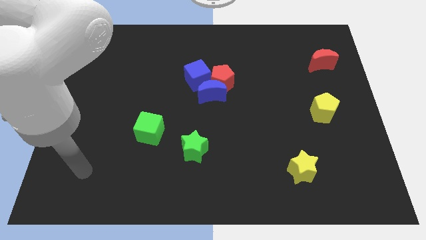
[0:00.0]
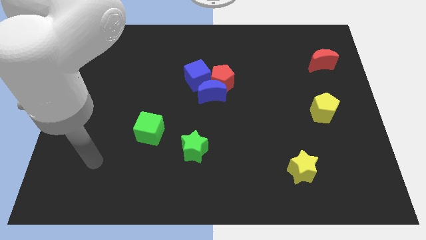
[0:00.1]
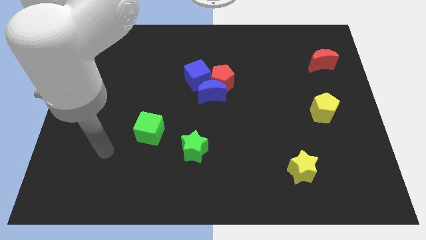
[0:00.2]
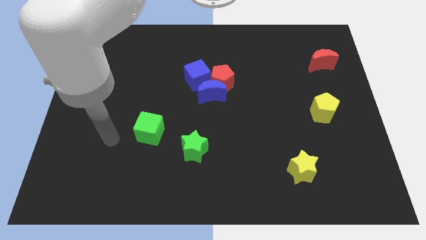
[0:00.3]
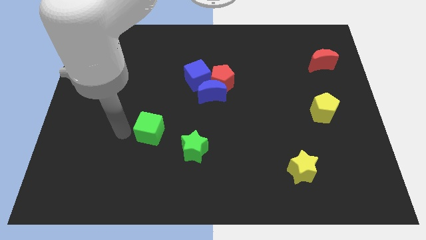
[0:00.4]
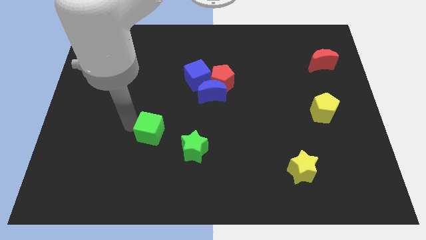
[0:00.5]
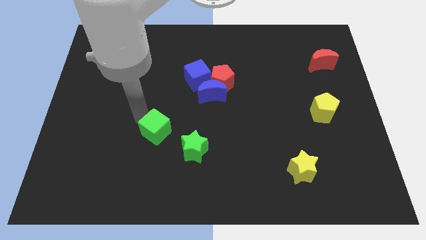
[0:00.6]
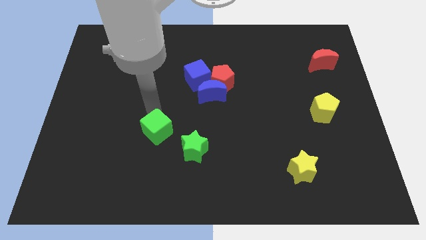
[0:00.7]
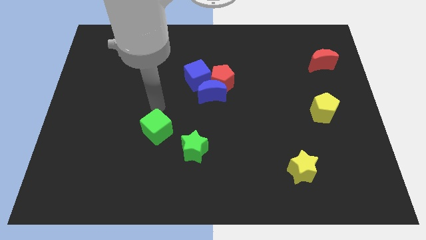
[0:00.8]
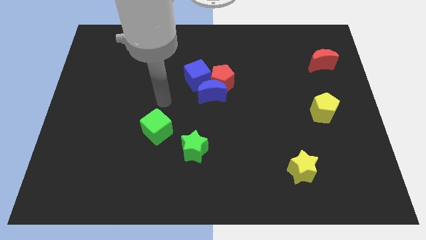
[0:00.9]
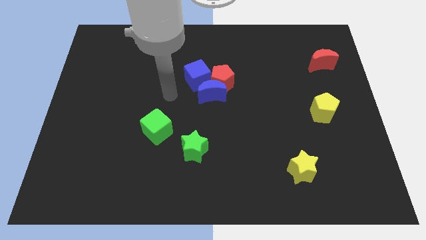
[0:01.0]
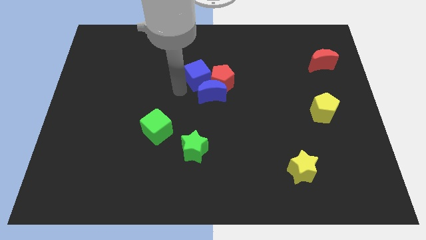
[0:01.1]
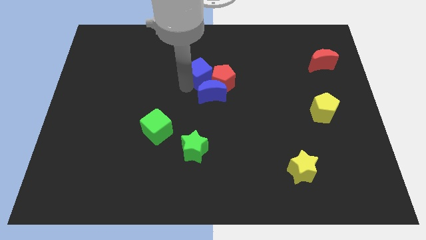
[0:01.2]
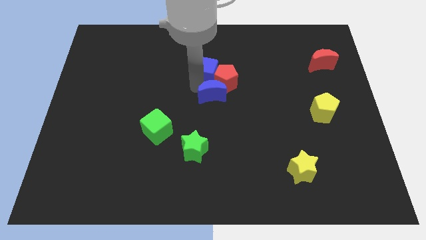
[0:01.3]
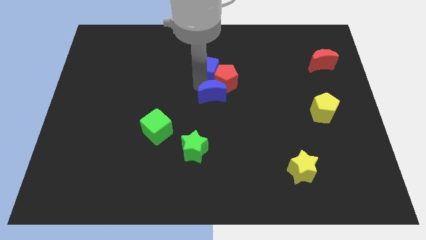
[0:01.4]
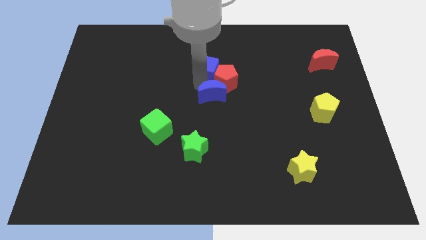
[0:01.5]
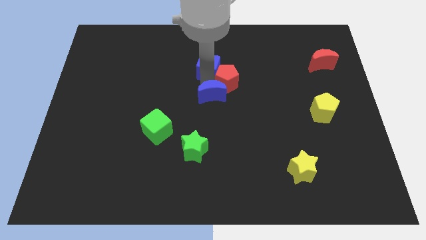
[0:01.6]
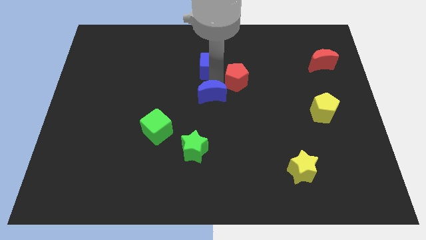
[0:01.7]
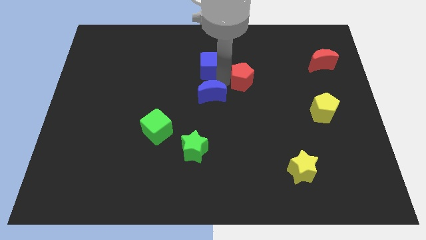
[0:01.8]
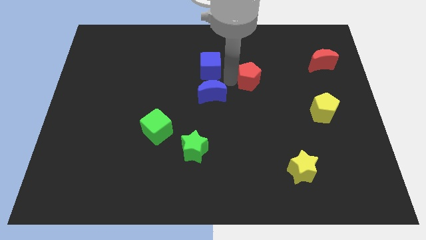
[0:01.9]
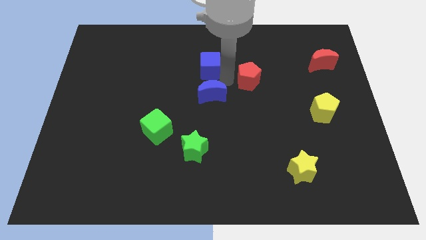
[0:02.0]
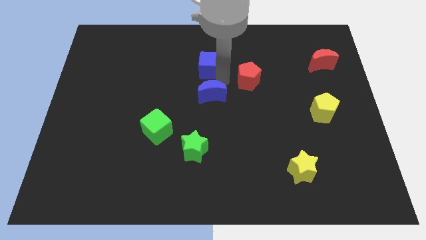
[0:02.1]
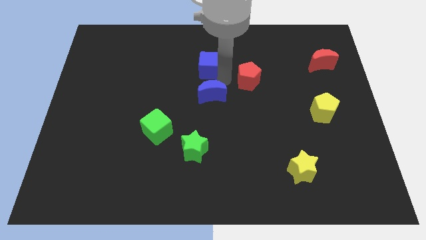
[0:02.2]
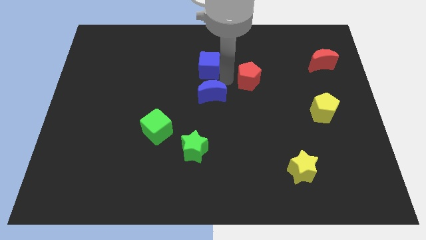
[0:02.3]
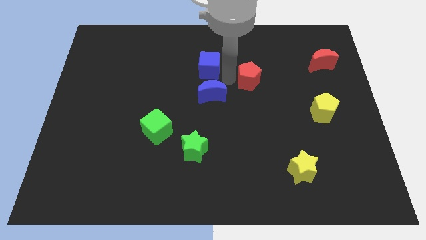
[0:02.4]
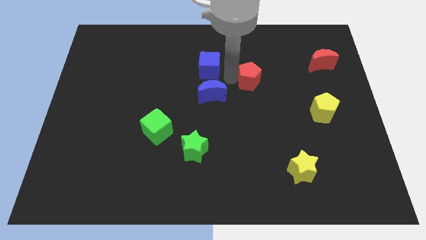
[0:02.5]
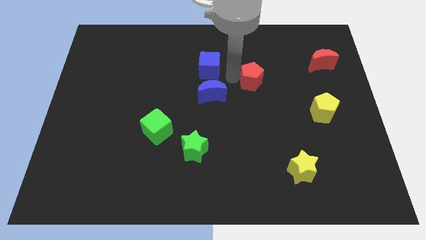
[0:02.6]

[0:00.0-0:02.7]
separate the red pentagon from the blue moon and blue cube

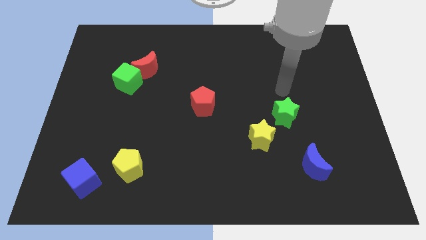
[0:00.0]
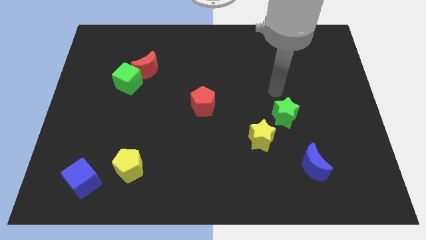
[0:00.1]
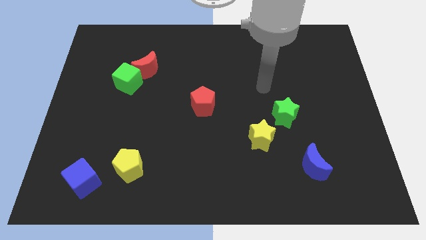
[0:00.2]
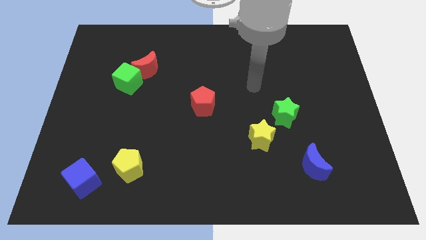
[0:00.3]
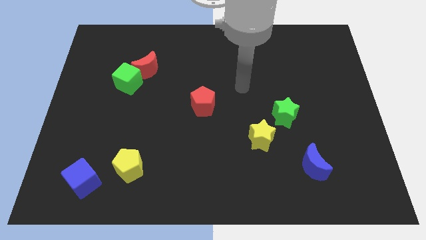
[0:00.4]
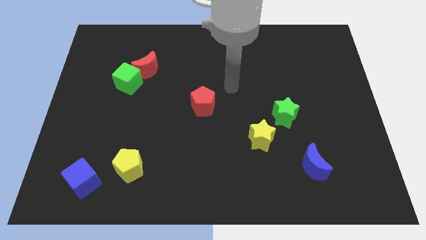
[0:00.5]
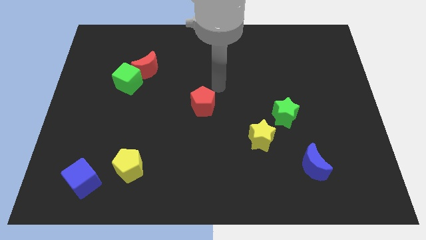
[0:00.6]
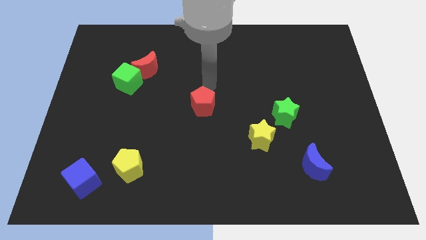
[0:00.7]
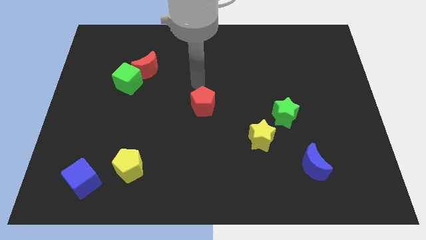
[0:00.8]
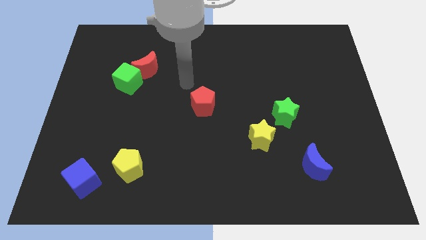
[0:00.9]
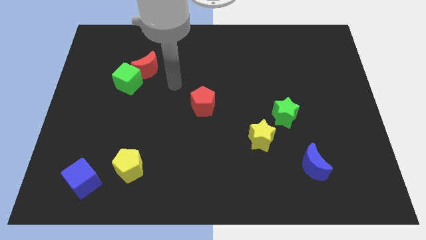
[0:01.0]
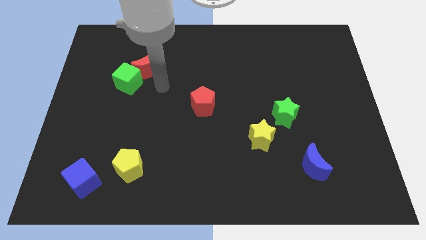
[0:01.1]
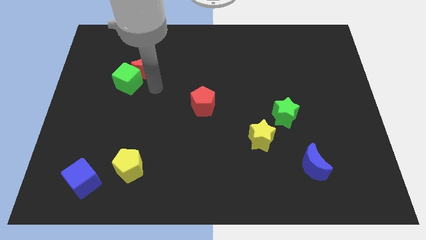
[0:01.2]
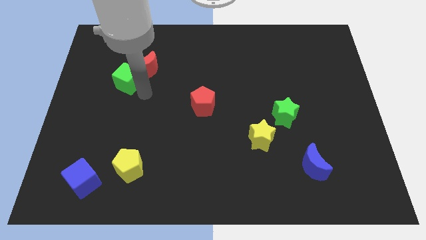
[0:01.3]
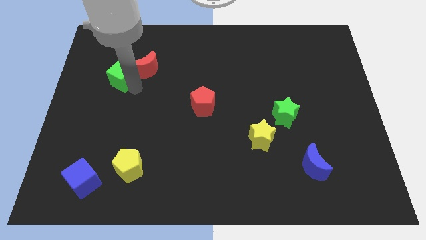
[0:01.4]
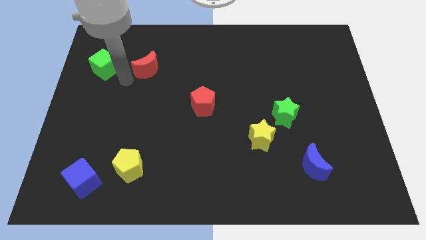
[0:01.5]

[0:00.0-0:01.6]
separate the red moon from the green cube

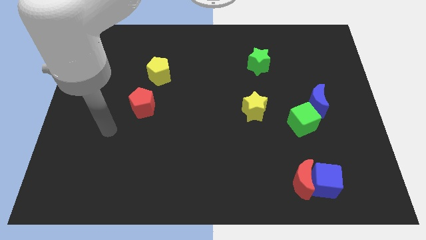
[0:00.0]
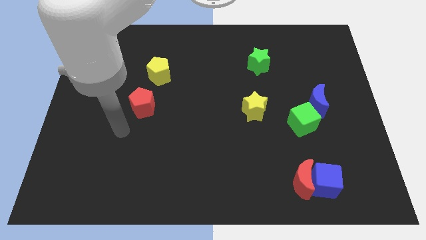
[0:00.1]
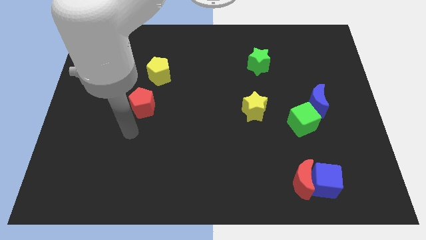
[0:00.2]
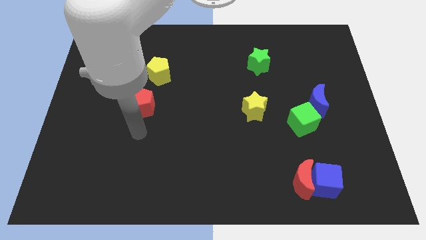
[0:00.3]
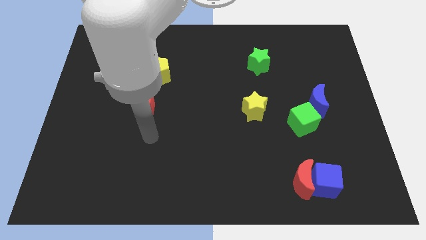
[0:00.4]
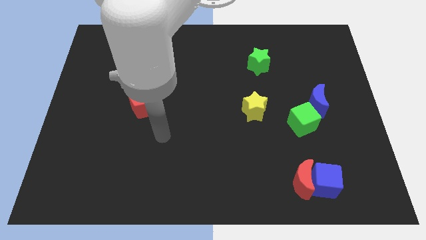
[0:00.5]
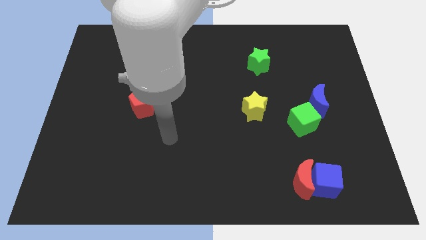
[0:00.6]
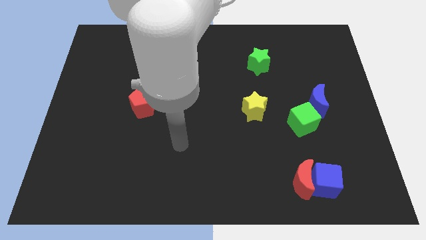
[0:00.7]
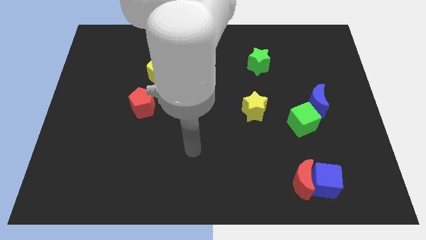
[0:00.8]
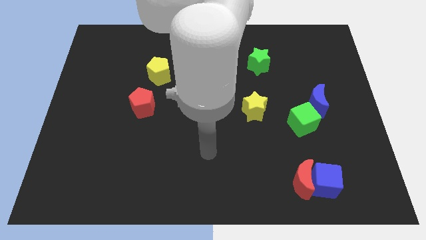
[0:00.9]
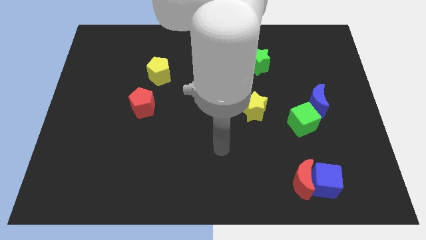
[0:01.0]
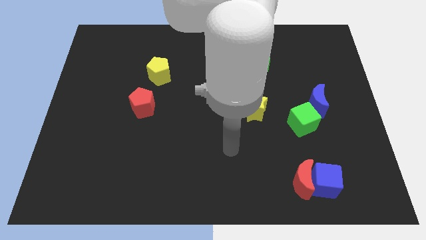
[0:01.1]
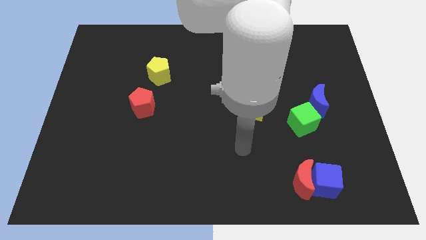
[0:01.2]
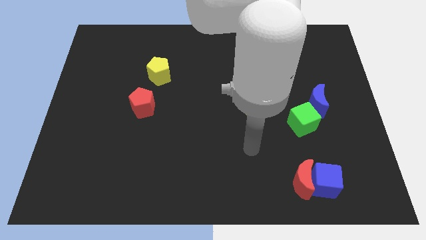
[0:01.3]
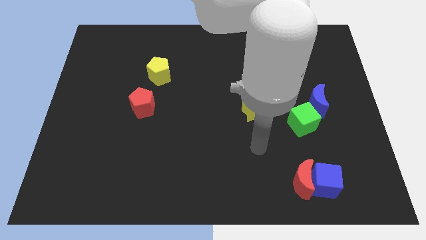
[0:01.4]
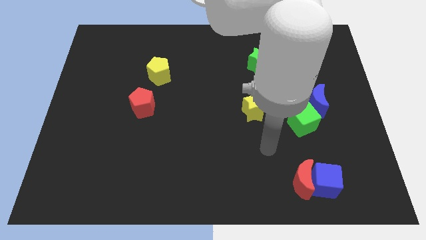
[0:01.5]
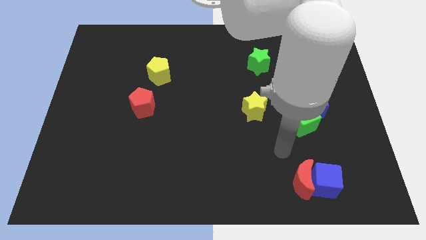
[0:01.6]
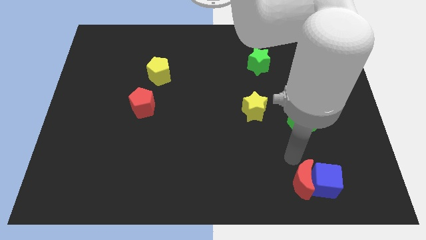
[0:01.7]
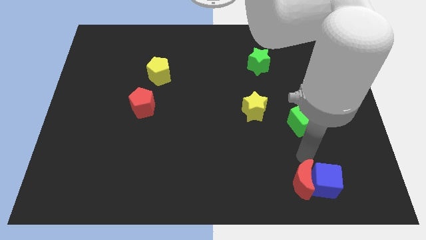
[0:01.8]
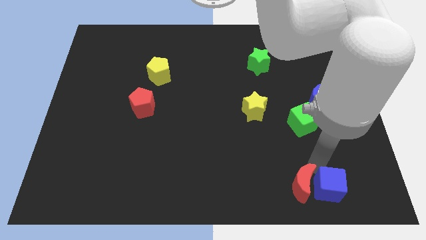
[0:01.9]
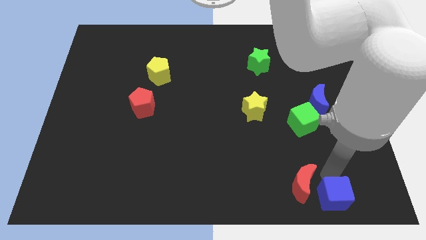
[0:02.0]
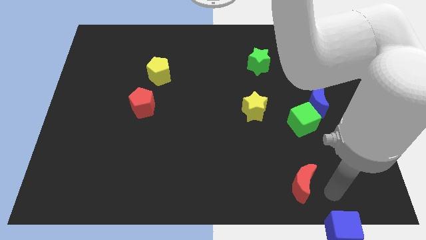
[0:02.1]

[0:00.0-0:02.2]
separate the red moon from the blue cube

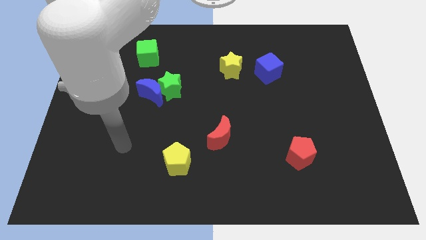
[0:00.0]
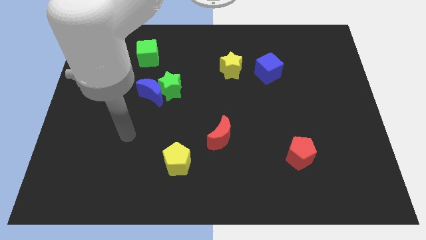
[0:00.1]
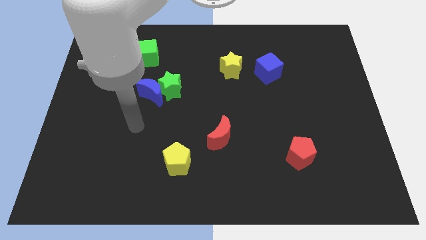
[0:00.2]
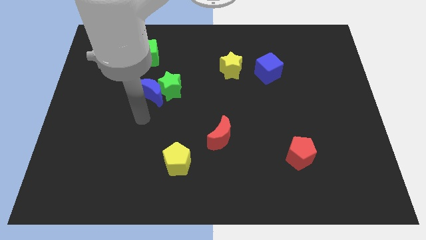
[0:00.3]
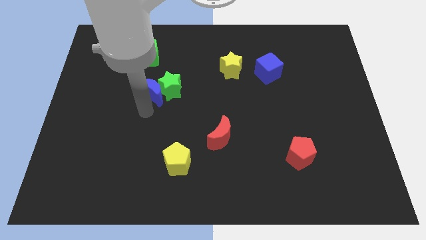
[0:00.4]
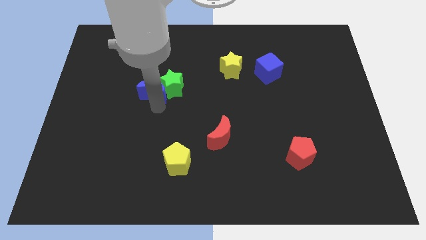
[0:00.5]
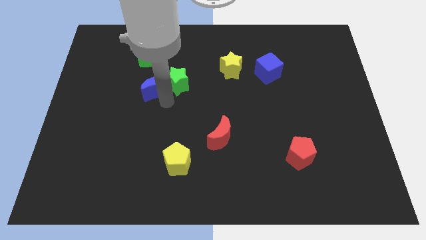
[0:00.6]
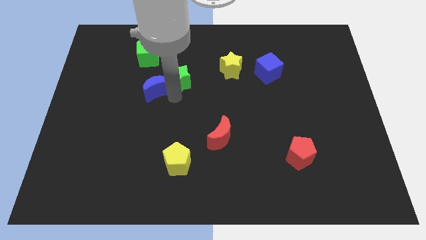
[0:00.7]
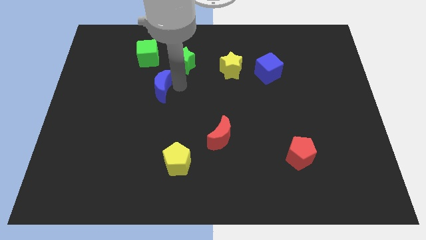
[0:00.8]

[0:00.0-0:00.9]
separate the blue moon from the green star

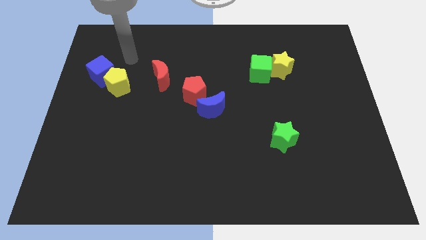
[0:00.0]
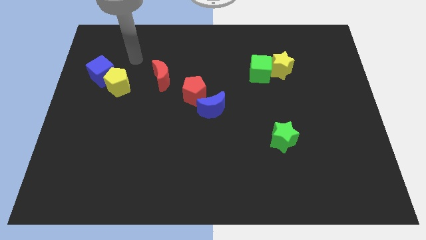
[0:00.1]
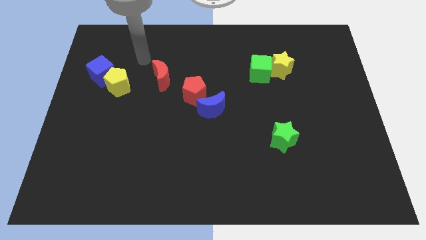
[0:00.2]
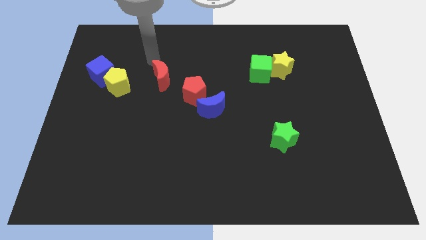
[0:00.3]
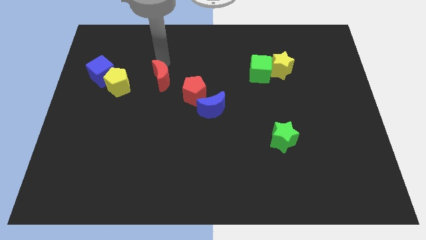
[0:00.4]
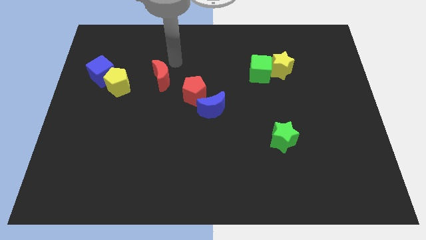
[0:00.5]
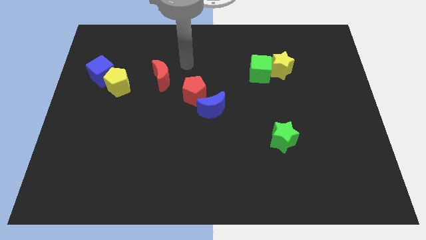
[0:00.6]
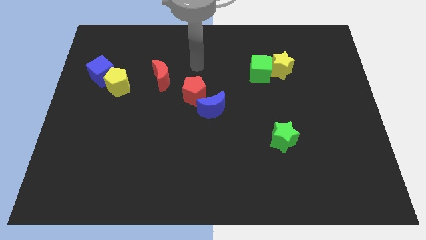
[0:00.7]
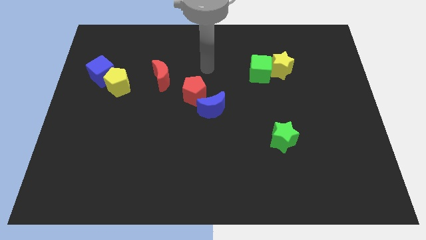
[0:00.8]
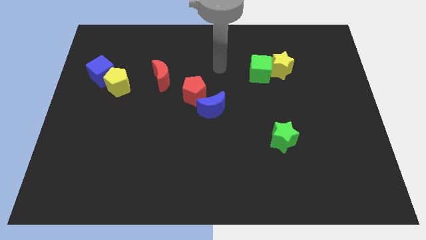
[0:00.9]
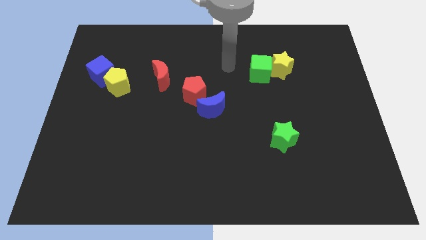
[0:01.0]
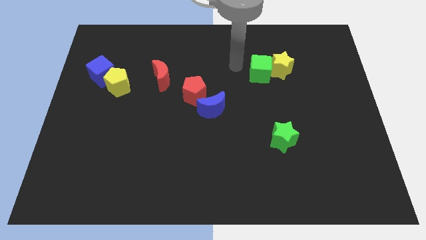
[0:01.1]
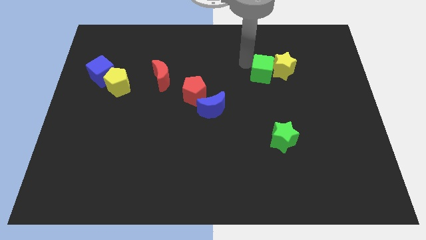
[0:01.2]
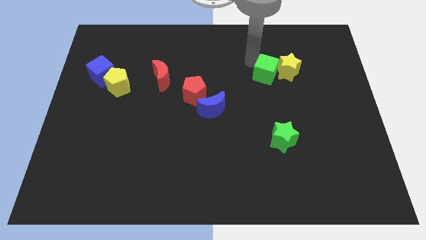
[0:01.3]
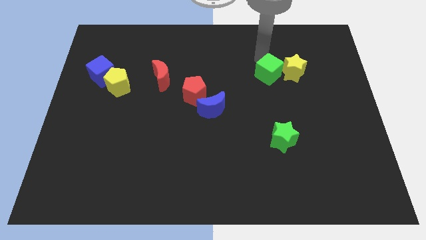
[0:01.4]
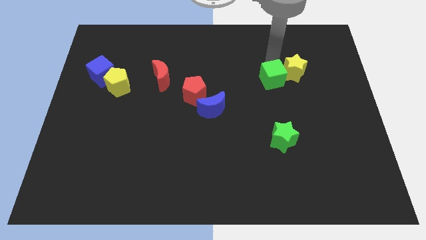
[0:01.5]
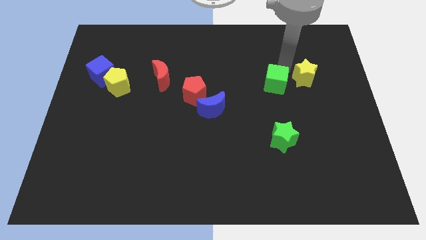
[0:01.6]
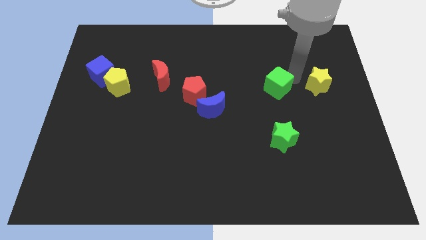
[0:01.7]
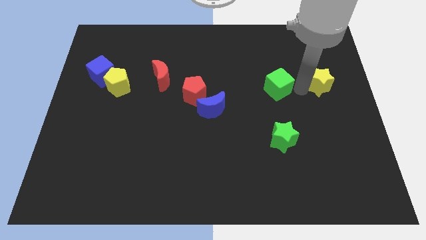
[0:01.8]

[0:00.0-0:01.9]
pull the green cube apart from the yellow star
